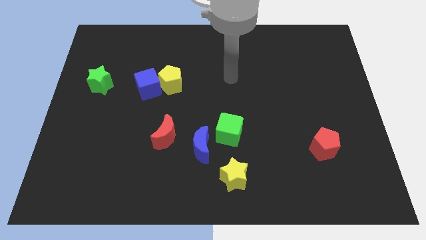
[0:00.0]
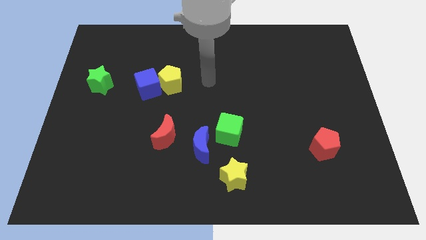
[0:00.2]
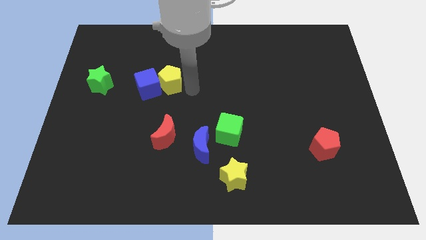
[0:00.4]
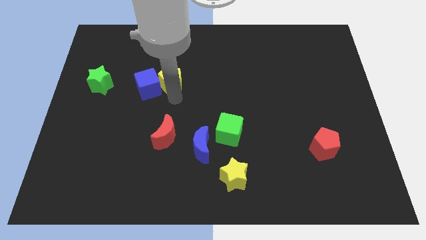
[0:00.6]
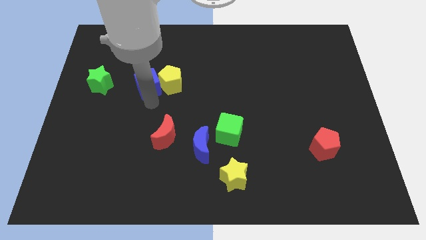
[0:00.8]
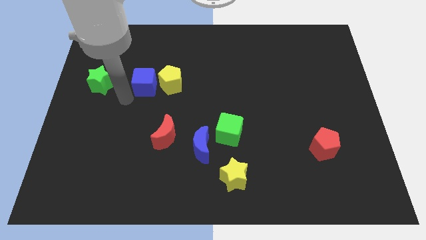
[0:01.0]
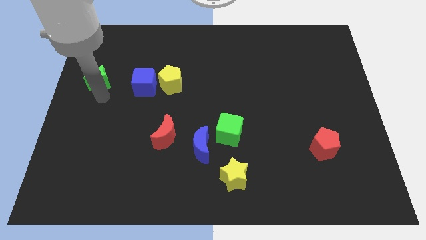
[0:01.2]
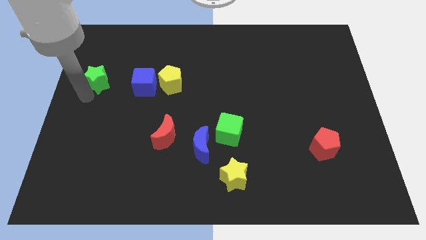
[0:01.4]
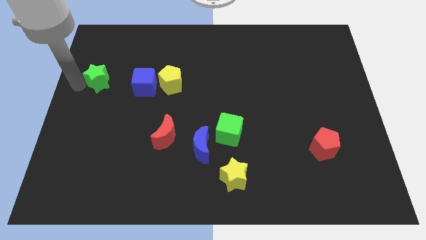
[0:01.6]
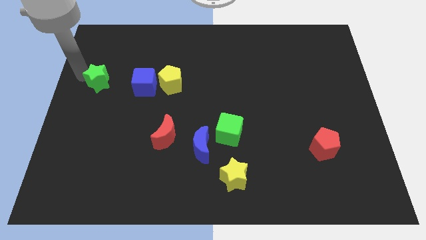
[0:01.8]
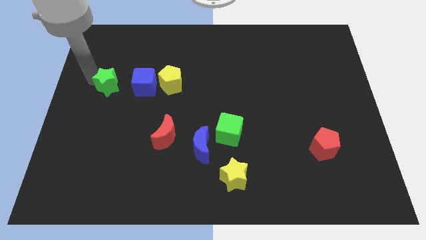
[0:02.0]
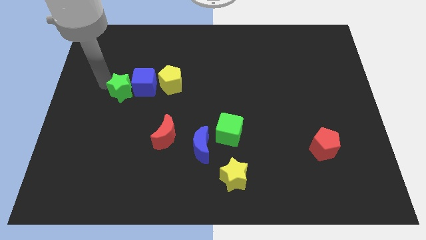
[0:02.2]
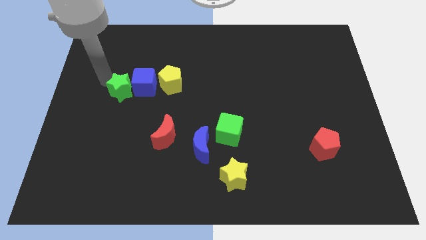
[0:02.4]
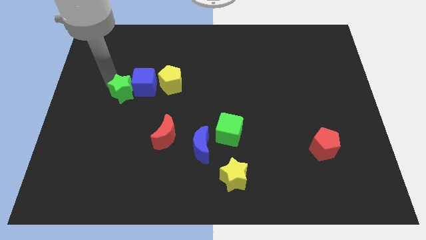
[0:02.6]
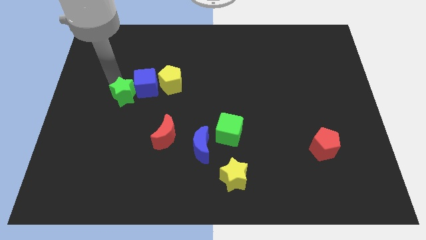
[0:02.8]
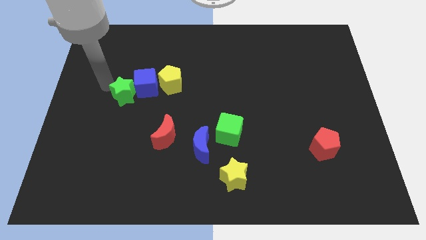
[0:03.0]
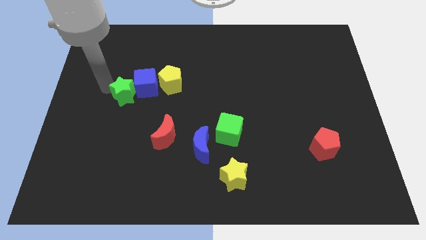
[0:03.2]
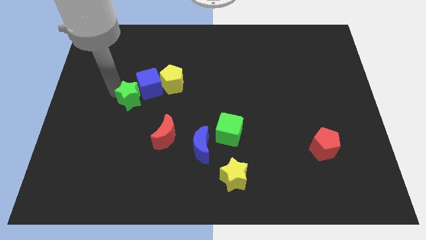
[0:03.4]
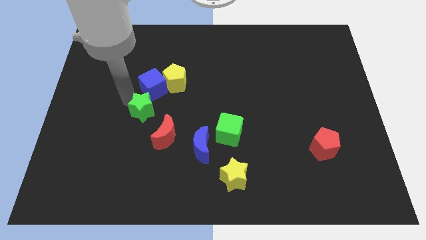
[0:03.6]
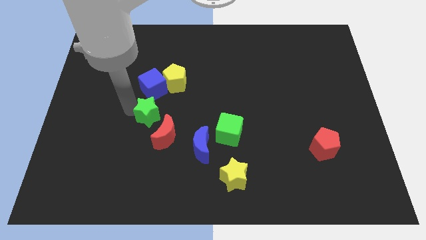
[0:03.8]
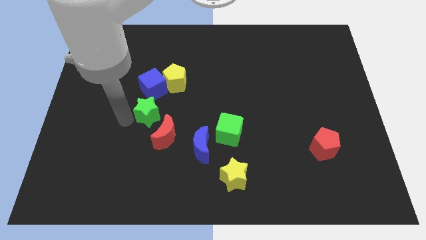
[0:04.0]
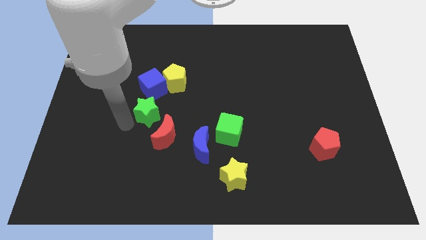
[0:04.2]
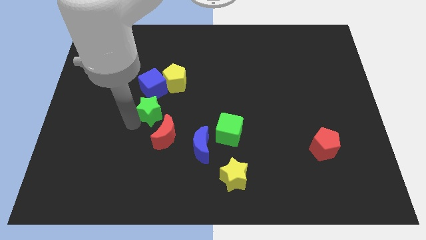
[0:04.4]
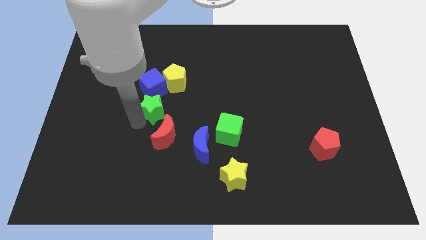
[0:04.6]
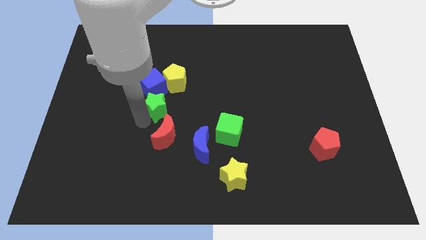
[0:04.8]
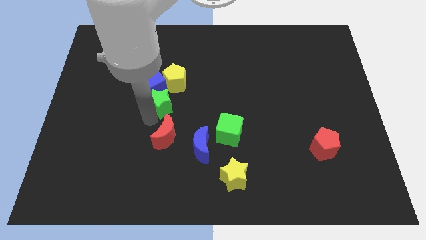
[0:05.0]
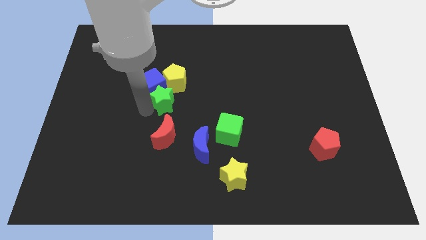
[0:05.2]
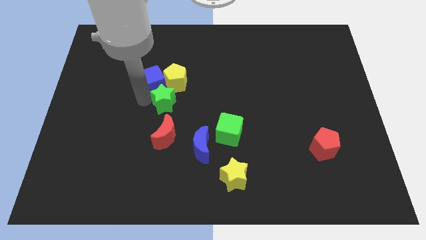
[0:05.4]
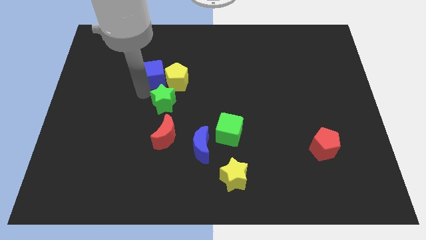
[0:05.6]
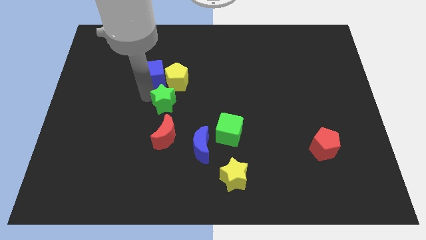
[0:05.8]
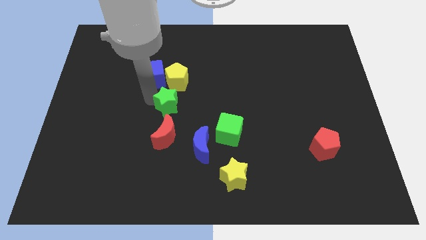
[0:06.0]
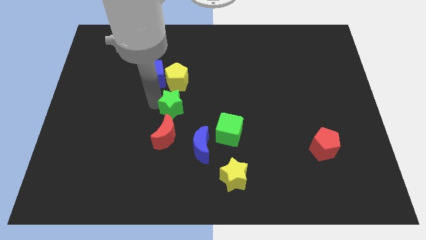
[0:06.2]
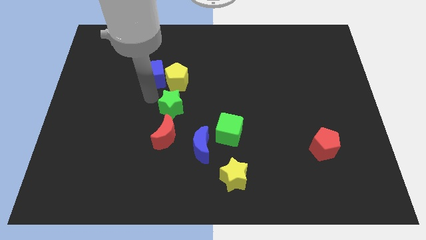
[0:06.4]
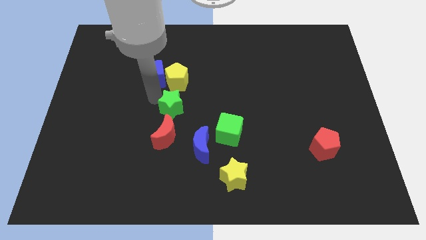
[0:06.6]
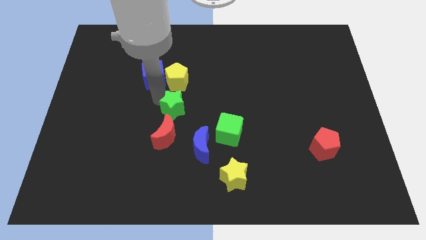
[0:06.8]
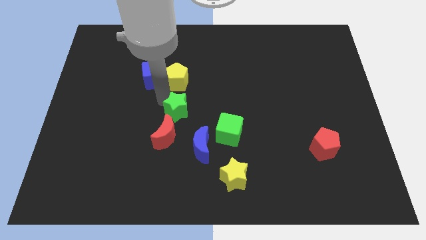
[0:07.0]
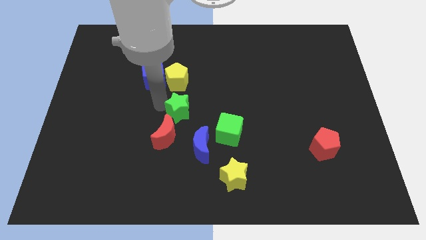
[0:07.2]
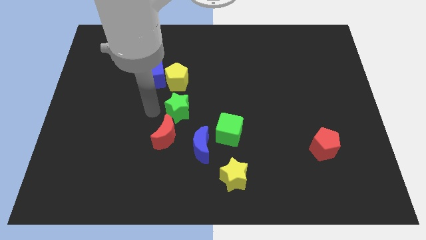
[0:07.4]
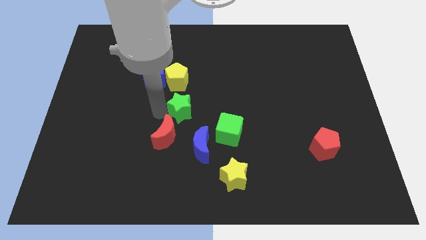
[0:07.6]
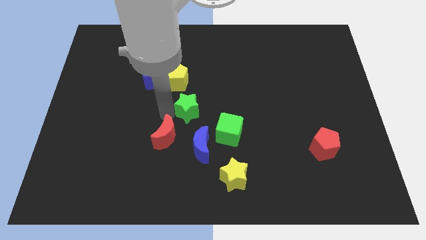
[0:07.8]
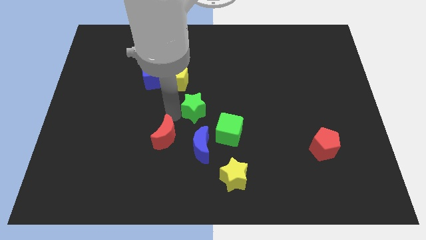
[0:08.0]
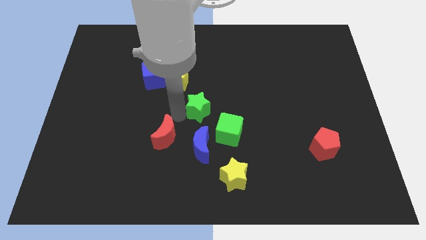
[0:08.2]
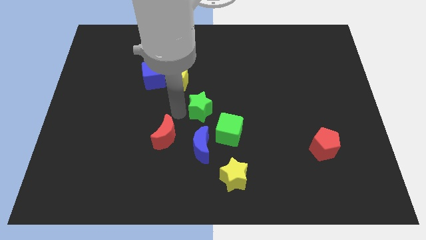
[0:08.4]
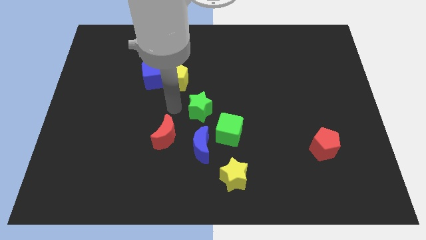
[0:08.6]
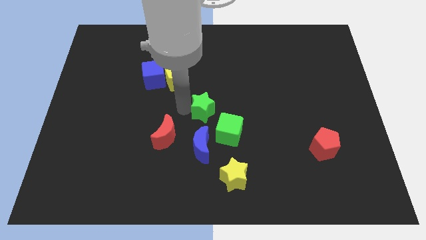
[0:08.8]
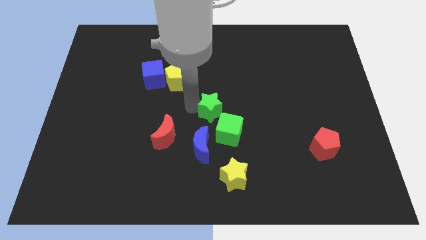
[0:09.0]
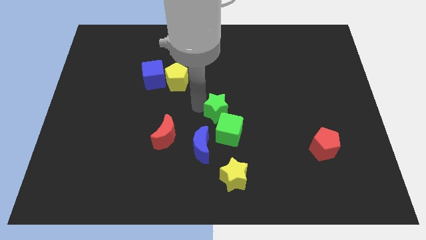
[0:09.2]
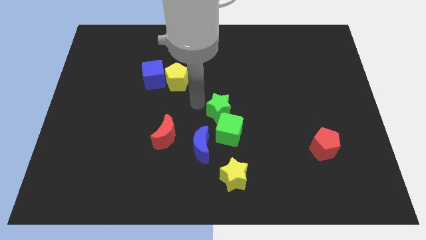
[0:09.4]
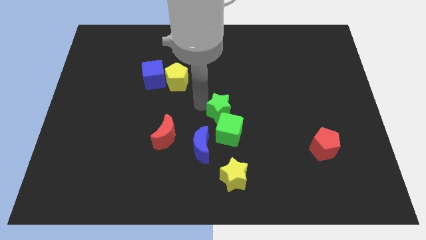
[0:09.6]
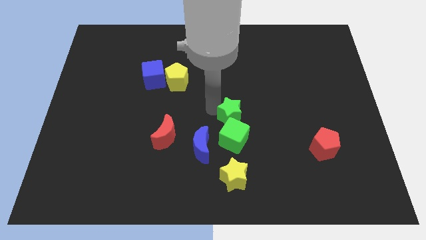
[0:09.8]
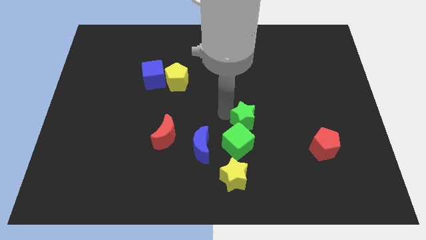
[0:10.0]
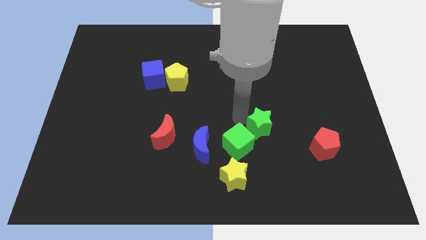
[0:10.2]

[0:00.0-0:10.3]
push the green star just right of the green cube

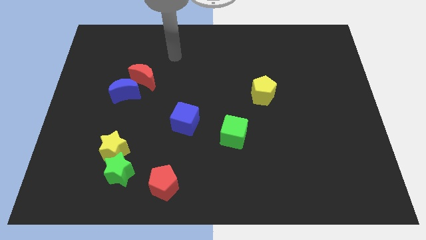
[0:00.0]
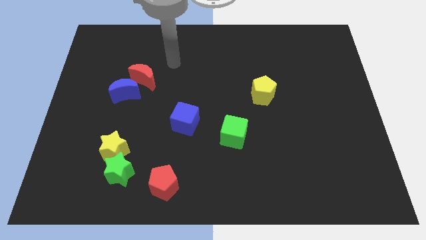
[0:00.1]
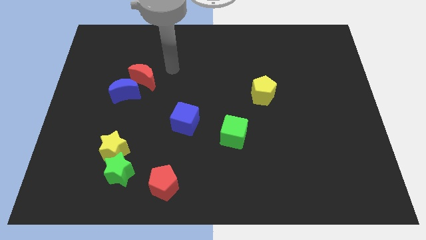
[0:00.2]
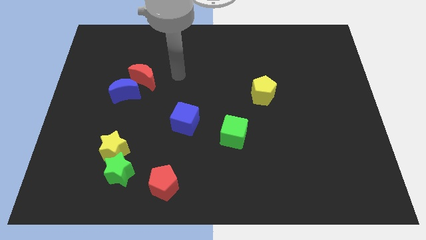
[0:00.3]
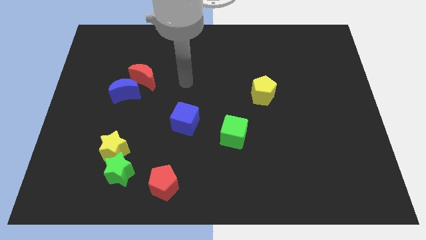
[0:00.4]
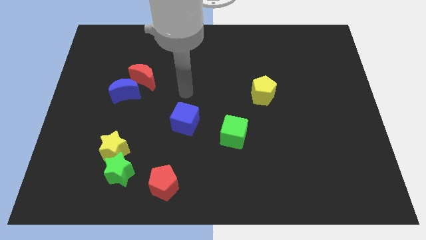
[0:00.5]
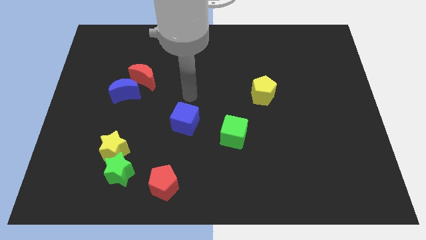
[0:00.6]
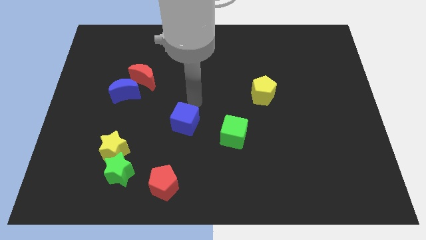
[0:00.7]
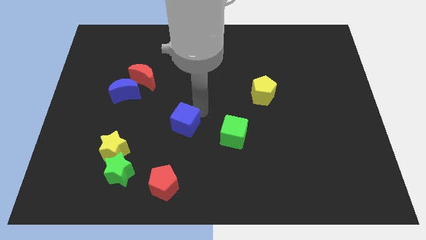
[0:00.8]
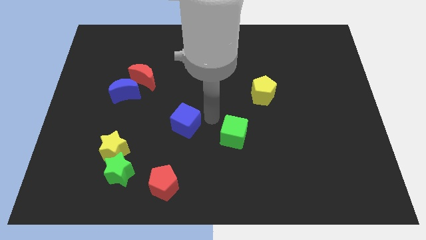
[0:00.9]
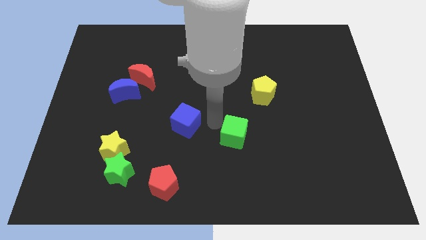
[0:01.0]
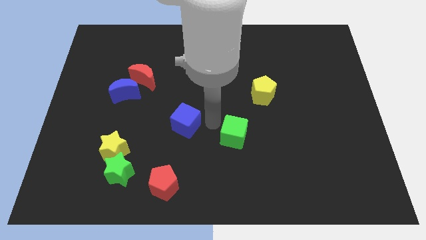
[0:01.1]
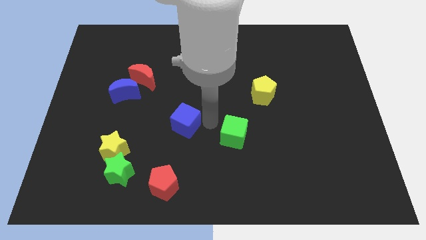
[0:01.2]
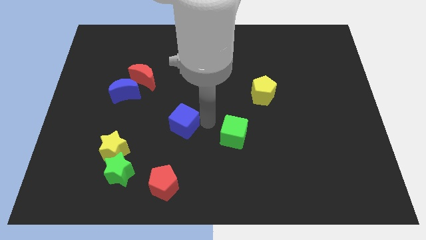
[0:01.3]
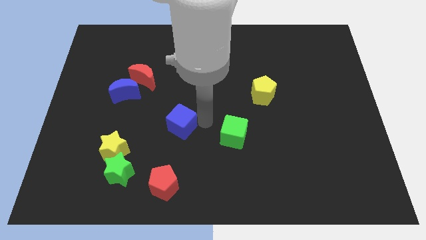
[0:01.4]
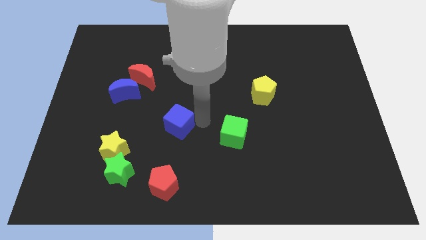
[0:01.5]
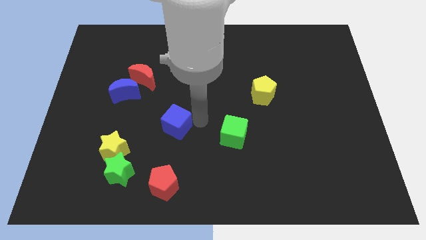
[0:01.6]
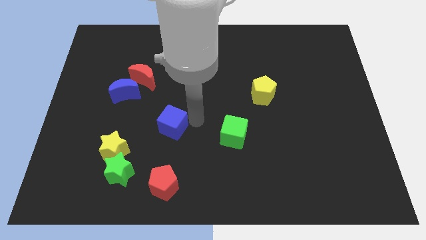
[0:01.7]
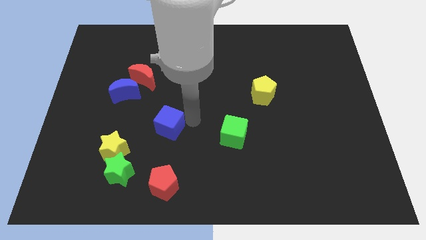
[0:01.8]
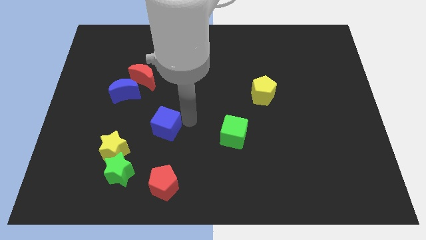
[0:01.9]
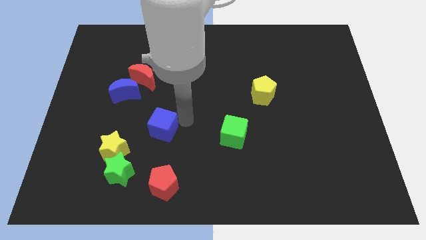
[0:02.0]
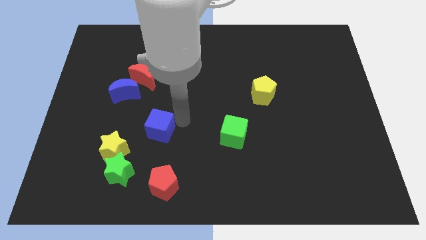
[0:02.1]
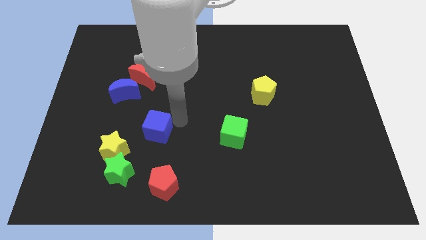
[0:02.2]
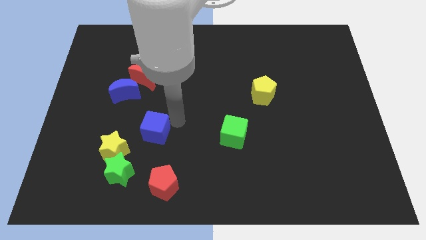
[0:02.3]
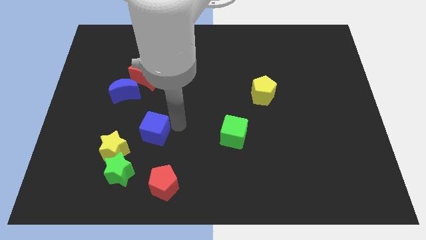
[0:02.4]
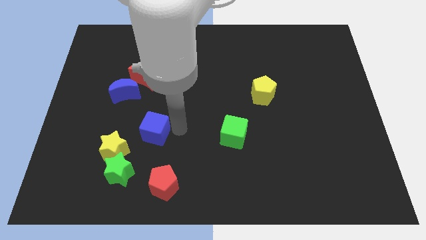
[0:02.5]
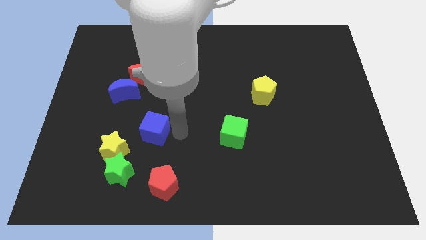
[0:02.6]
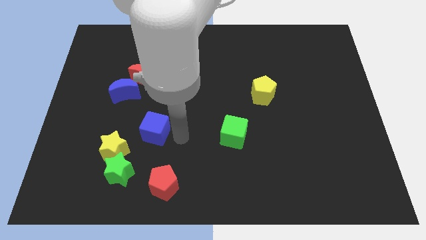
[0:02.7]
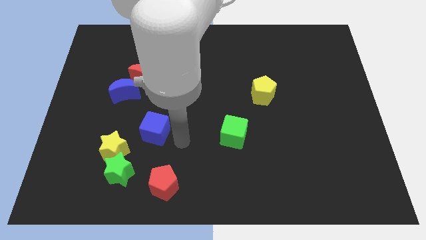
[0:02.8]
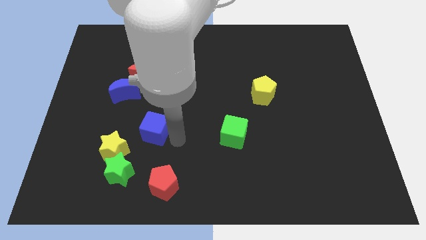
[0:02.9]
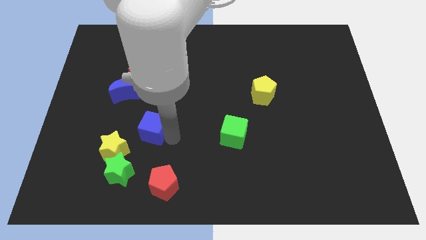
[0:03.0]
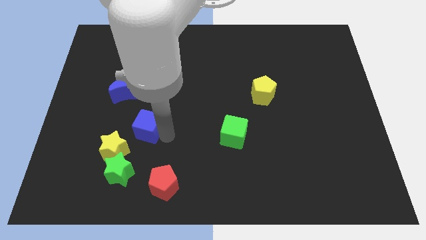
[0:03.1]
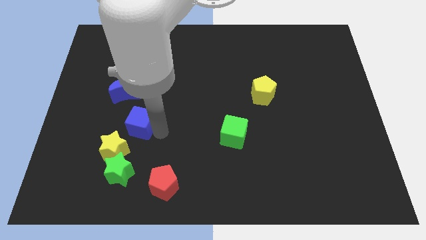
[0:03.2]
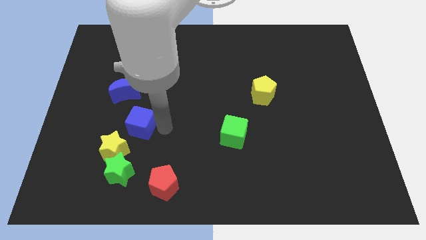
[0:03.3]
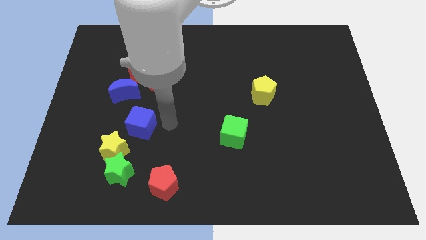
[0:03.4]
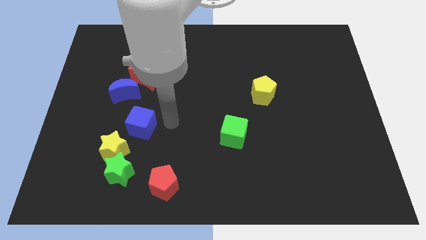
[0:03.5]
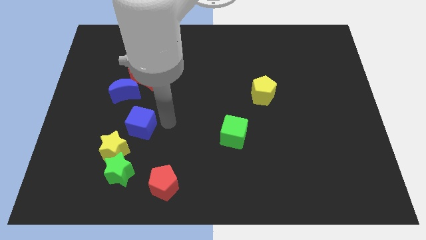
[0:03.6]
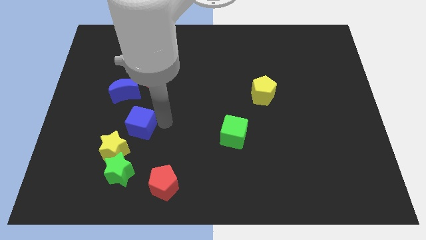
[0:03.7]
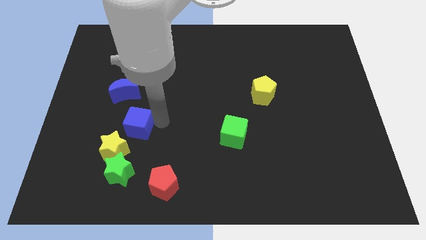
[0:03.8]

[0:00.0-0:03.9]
put the blue cube to the bottom side of the blue moon
